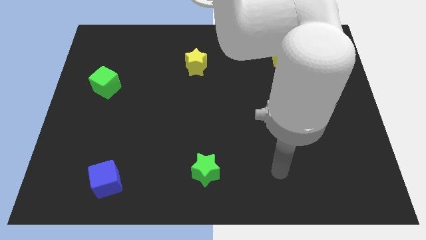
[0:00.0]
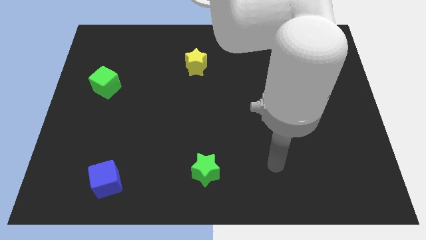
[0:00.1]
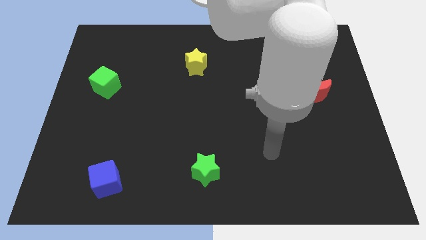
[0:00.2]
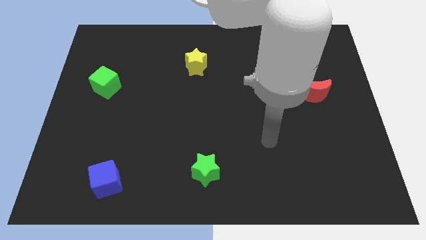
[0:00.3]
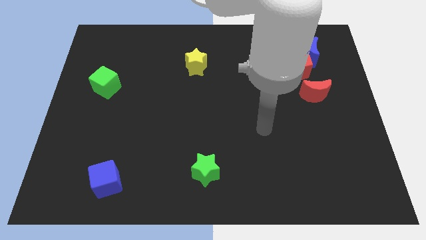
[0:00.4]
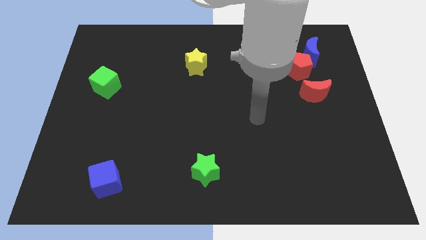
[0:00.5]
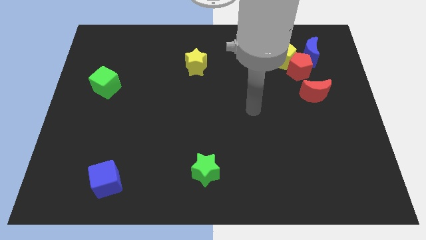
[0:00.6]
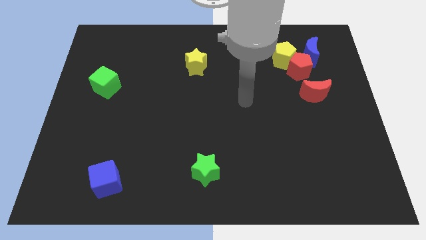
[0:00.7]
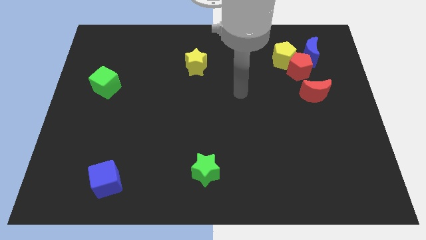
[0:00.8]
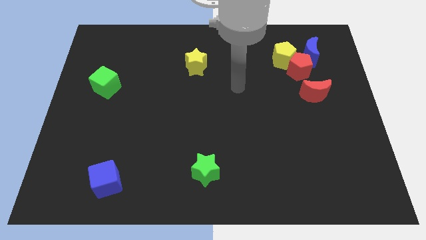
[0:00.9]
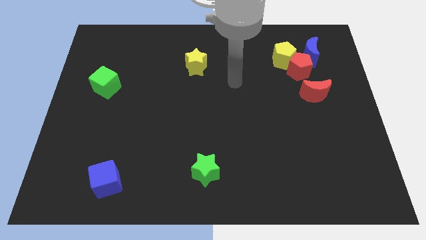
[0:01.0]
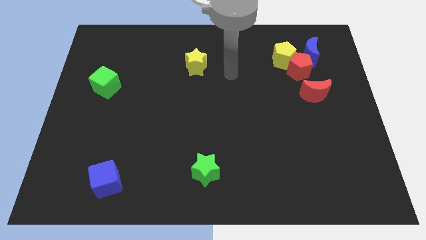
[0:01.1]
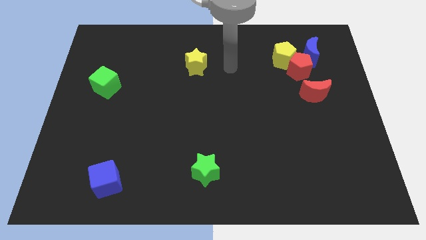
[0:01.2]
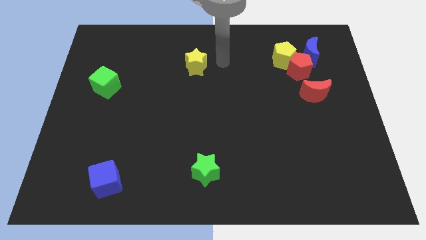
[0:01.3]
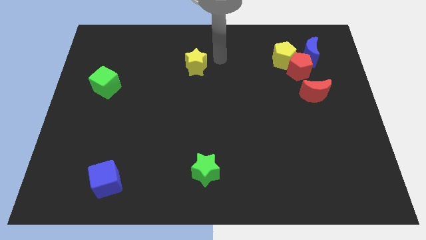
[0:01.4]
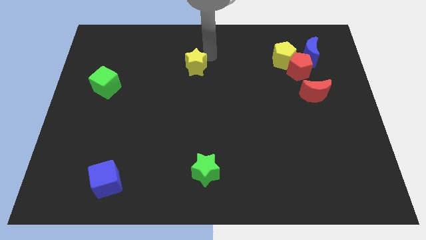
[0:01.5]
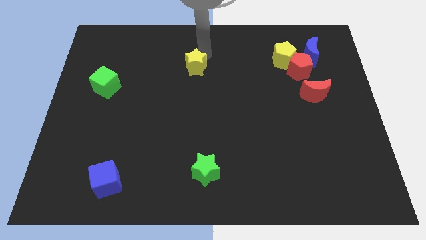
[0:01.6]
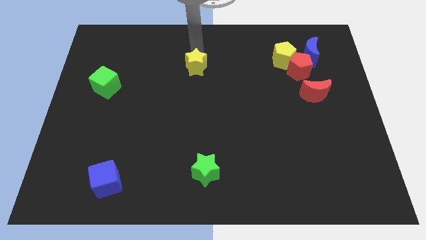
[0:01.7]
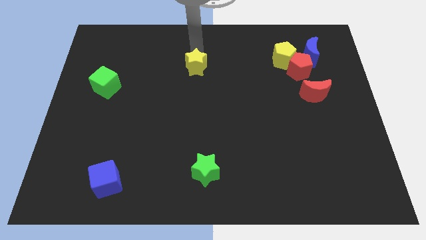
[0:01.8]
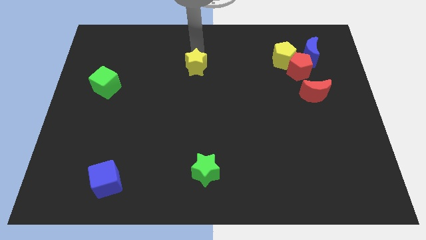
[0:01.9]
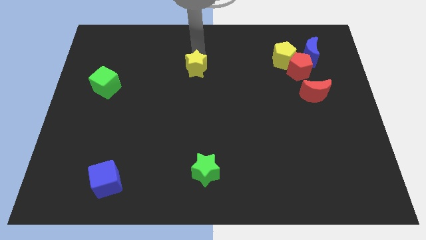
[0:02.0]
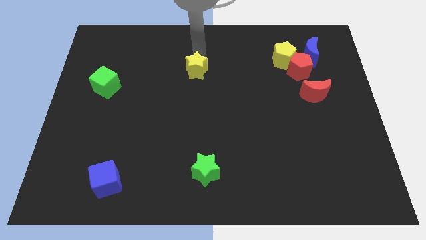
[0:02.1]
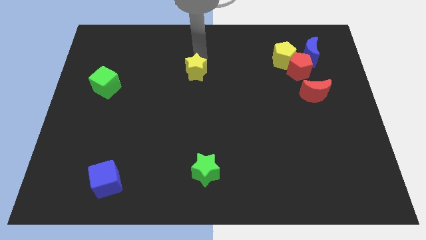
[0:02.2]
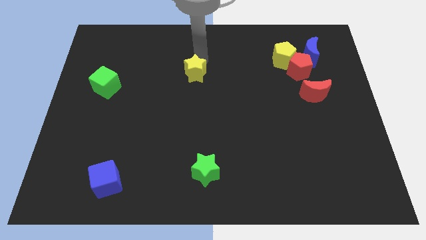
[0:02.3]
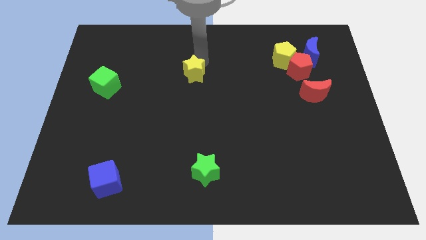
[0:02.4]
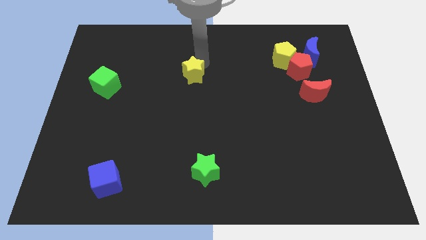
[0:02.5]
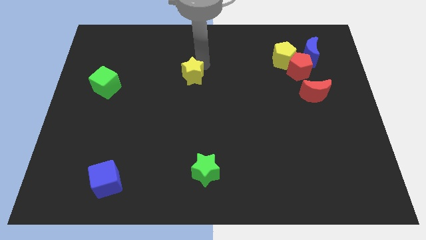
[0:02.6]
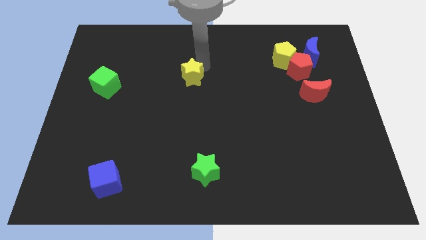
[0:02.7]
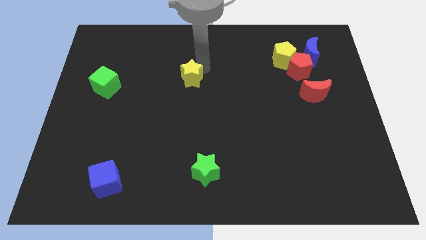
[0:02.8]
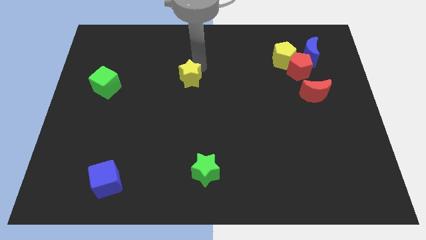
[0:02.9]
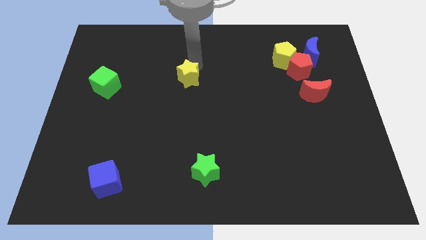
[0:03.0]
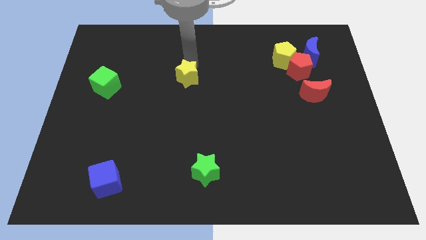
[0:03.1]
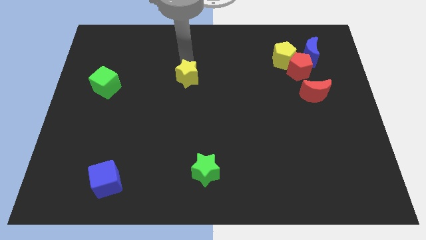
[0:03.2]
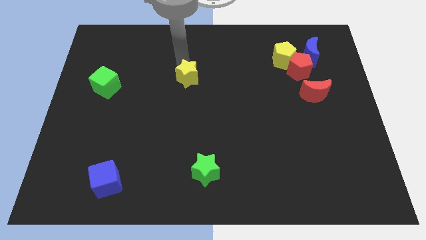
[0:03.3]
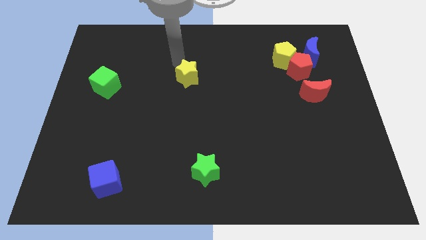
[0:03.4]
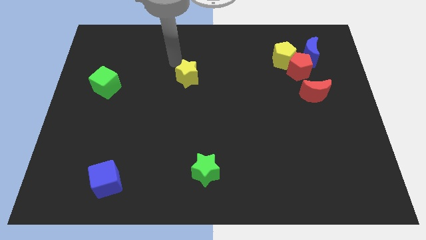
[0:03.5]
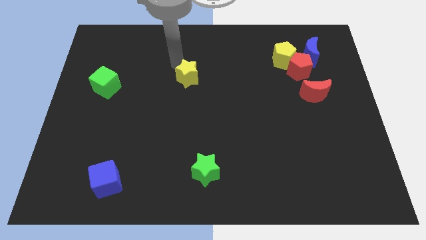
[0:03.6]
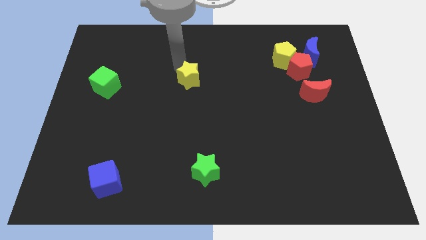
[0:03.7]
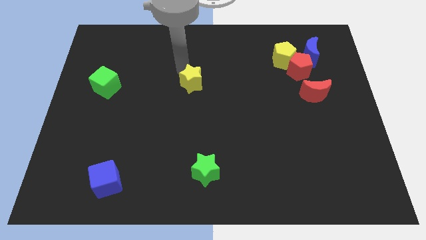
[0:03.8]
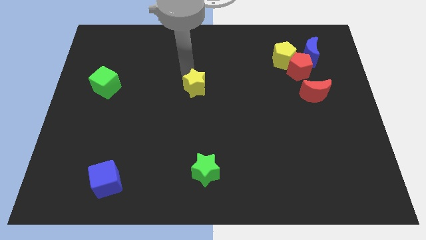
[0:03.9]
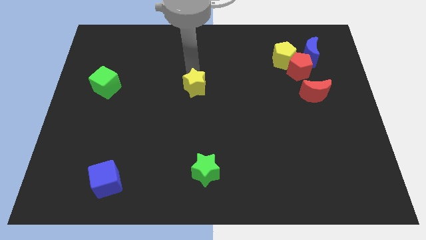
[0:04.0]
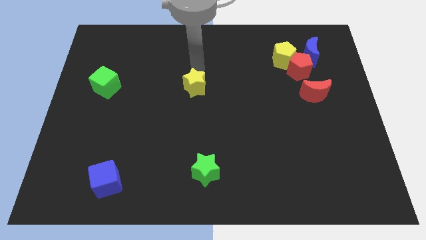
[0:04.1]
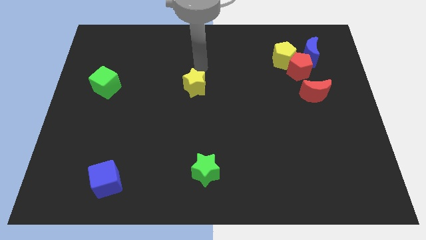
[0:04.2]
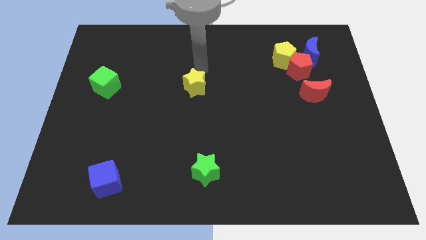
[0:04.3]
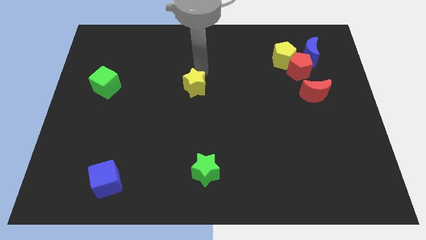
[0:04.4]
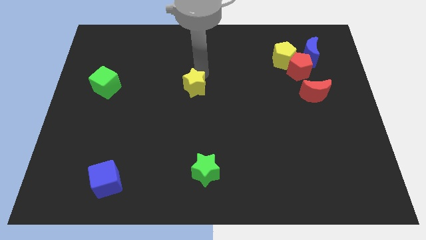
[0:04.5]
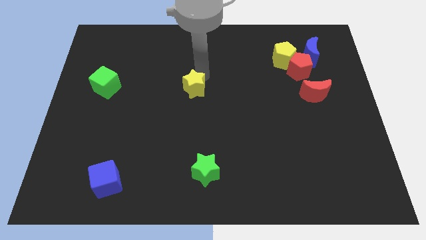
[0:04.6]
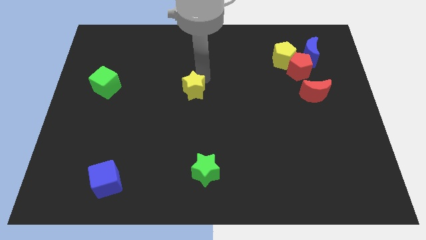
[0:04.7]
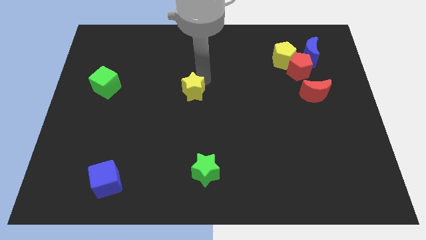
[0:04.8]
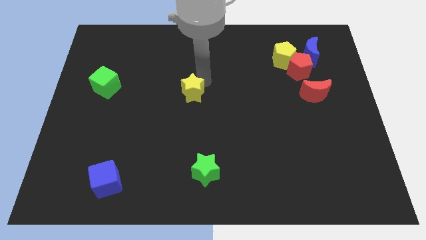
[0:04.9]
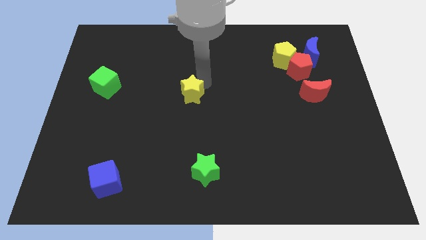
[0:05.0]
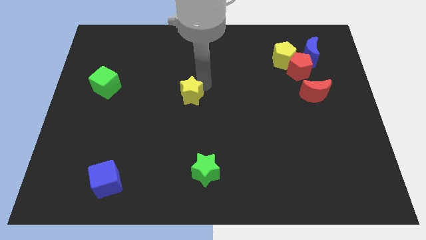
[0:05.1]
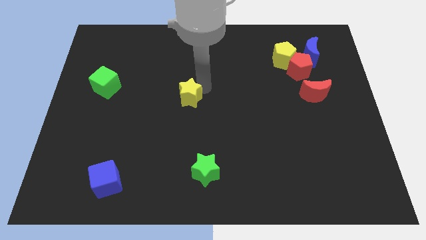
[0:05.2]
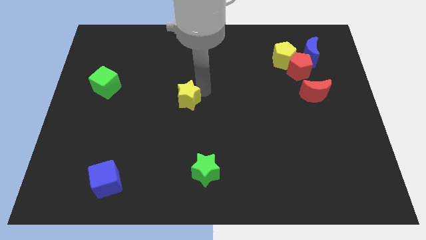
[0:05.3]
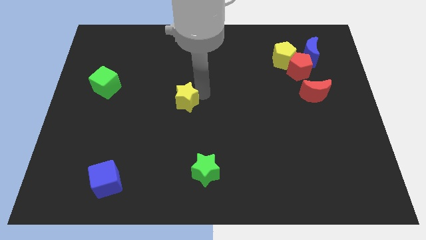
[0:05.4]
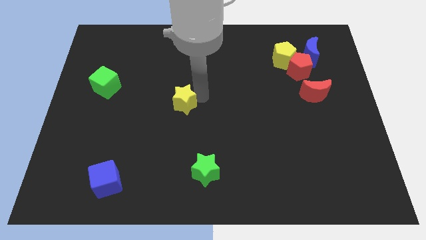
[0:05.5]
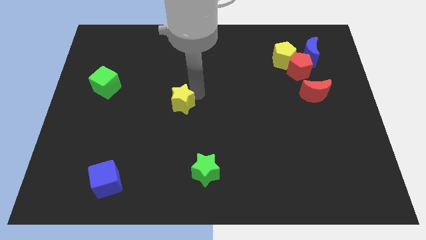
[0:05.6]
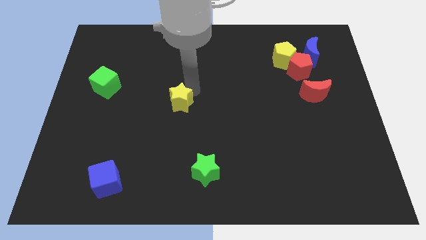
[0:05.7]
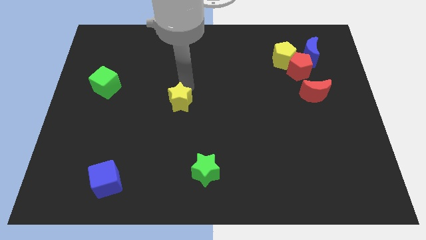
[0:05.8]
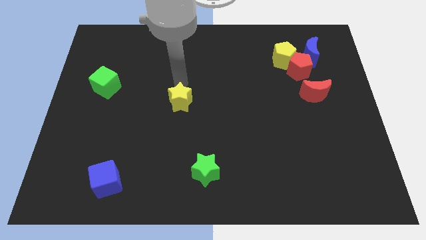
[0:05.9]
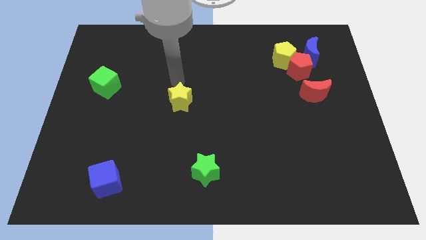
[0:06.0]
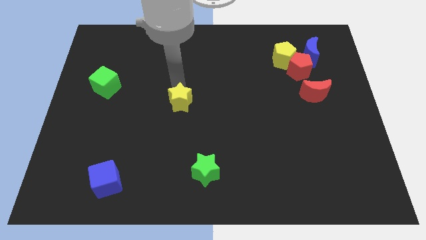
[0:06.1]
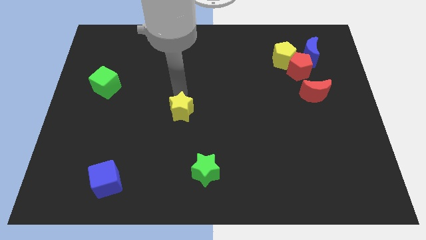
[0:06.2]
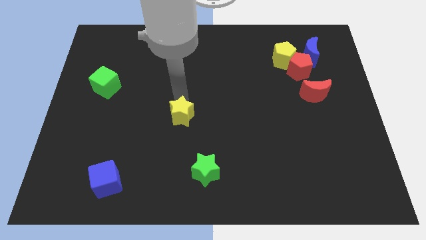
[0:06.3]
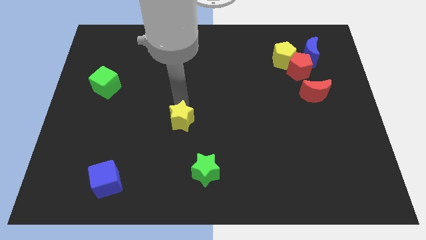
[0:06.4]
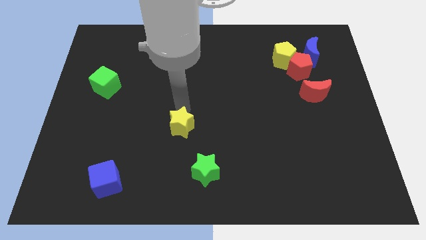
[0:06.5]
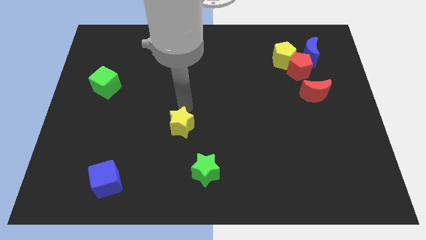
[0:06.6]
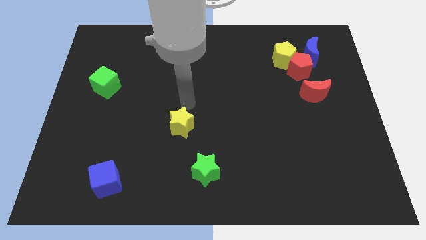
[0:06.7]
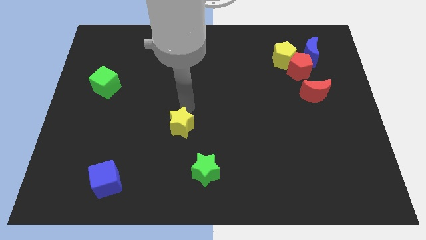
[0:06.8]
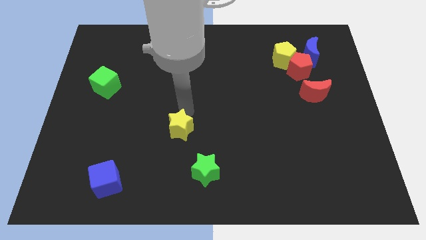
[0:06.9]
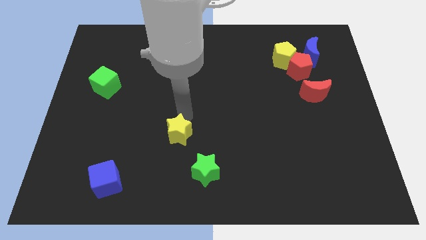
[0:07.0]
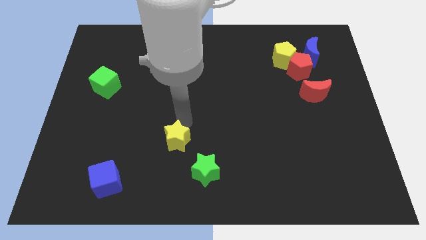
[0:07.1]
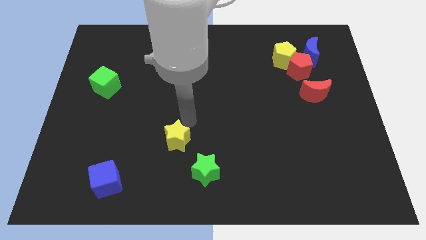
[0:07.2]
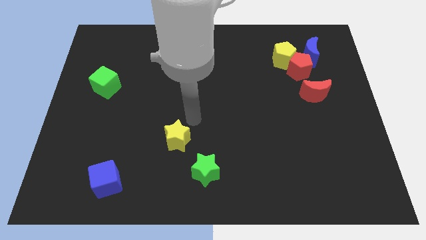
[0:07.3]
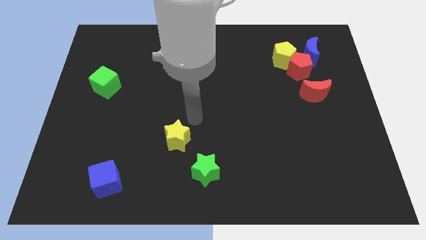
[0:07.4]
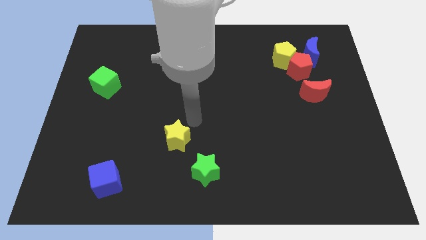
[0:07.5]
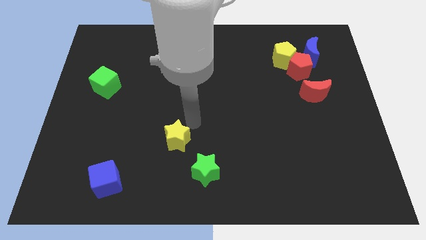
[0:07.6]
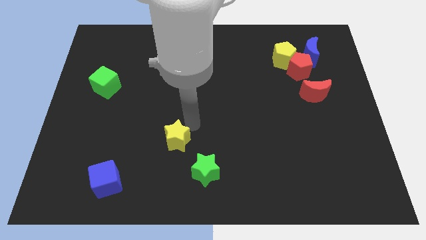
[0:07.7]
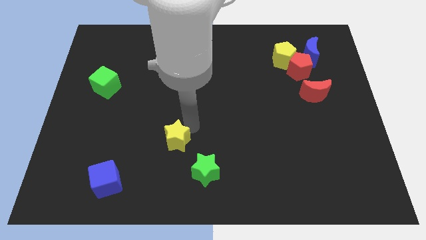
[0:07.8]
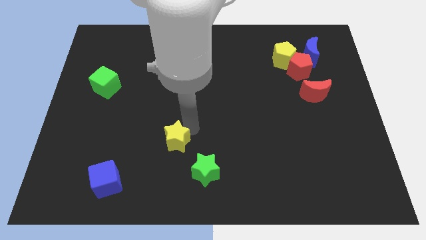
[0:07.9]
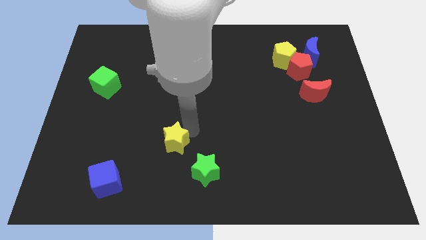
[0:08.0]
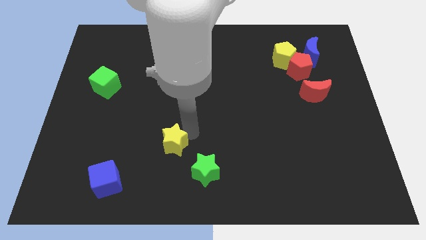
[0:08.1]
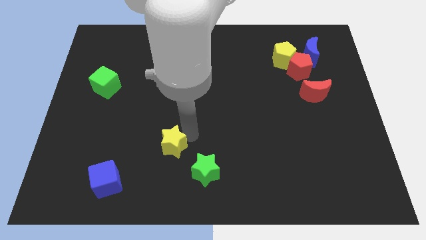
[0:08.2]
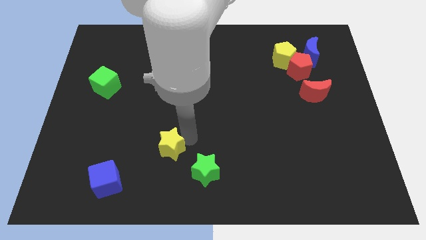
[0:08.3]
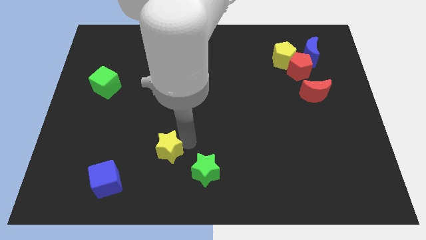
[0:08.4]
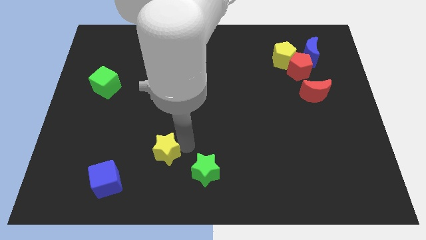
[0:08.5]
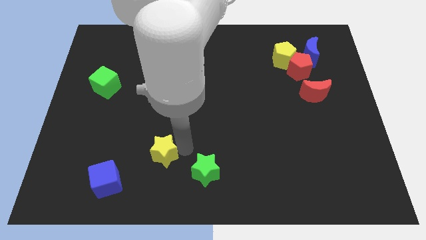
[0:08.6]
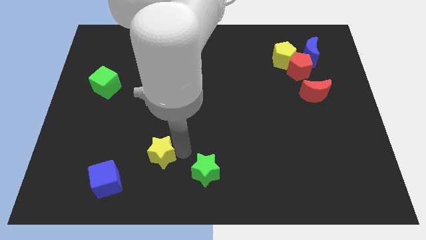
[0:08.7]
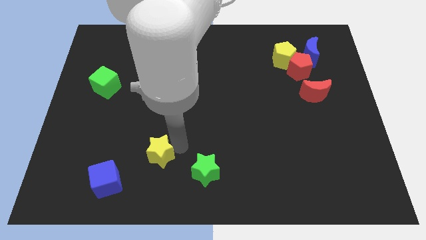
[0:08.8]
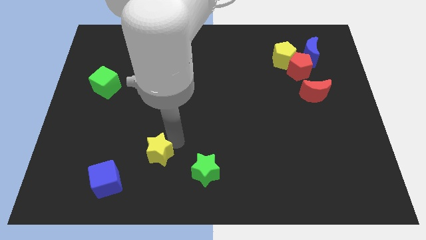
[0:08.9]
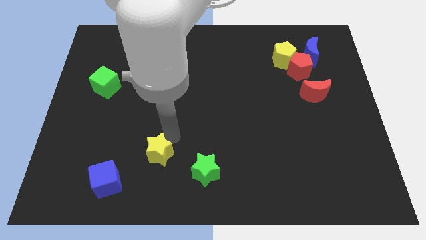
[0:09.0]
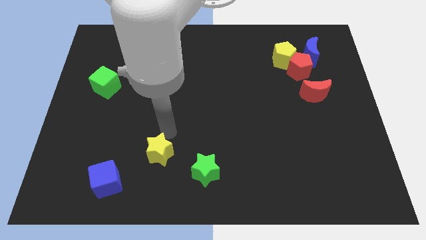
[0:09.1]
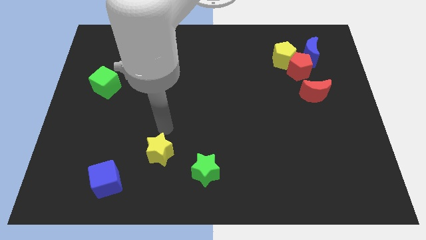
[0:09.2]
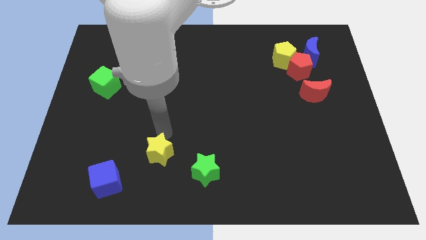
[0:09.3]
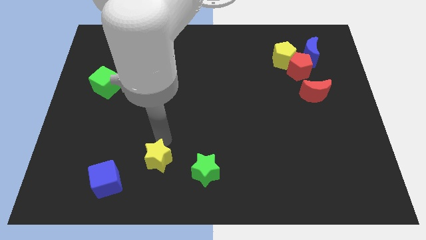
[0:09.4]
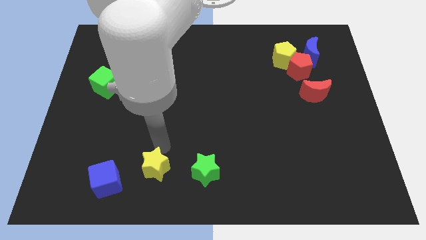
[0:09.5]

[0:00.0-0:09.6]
slide the yellow star to the right side of the blue cube
